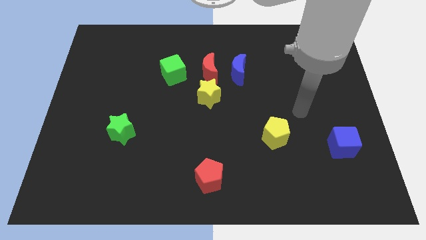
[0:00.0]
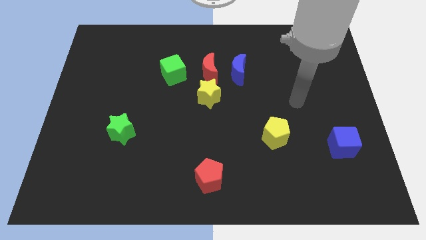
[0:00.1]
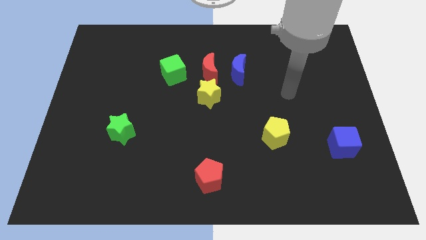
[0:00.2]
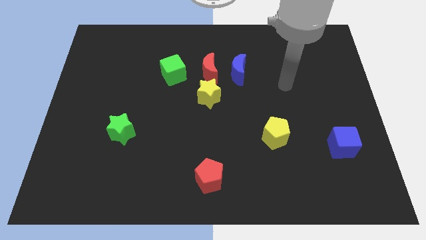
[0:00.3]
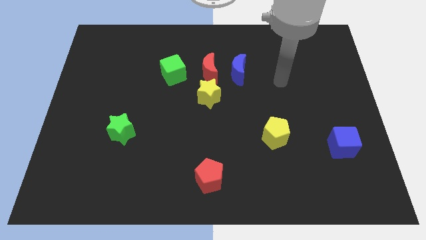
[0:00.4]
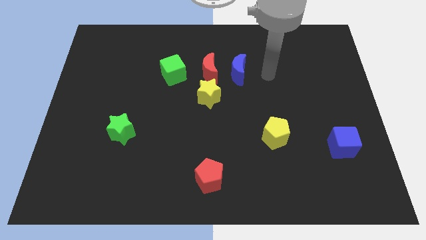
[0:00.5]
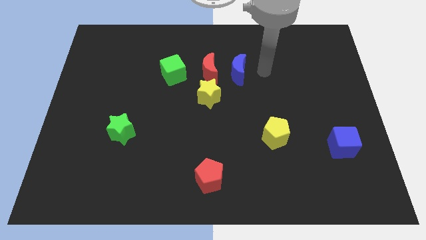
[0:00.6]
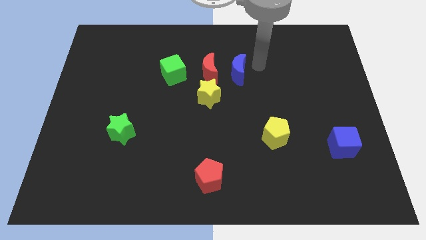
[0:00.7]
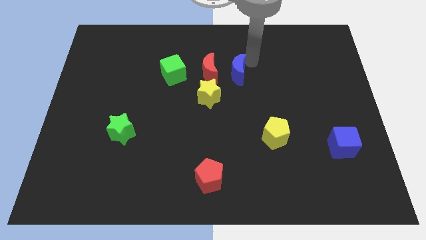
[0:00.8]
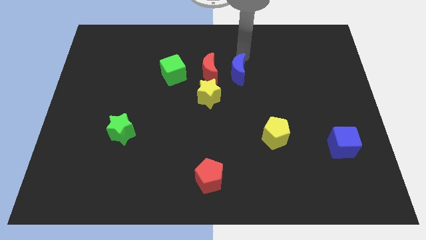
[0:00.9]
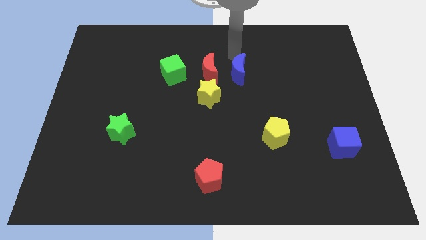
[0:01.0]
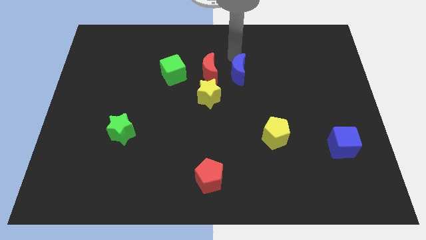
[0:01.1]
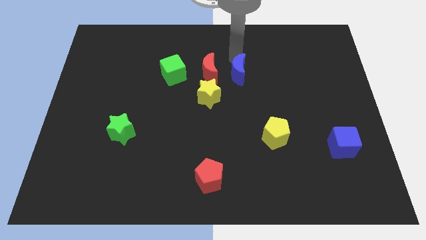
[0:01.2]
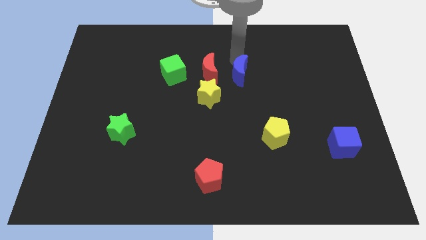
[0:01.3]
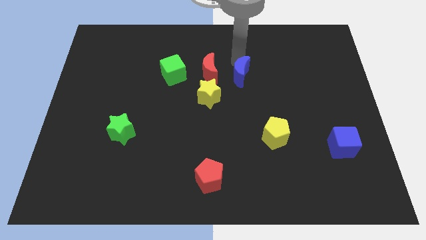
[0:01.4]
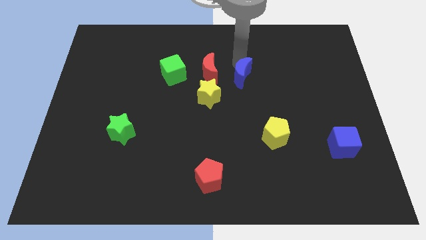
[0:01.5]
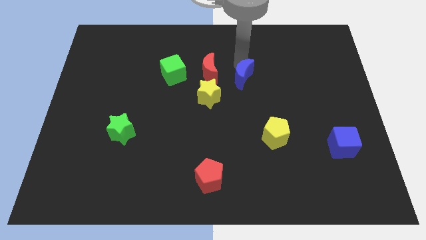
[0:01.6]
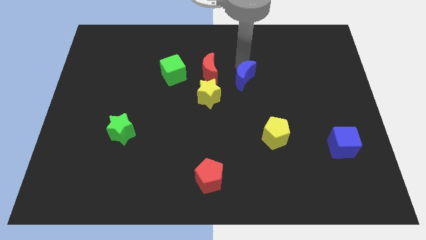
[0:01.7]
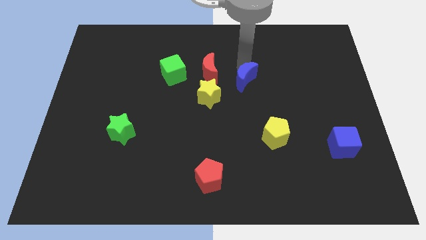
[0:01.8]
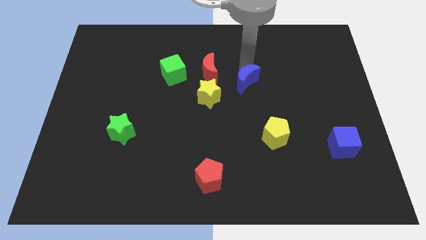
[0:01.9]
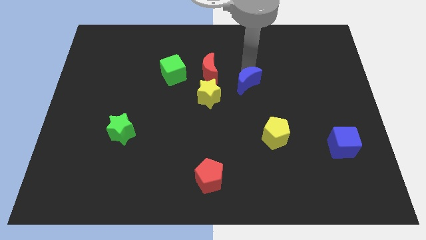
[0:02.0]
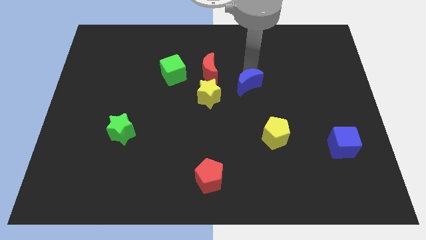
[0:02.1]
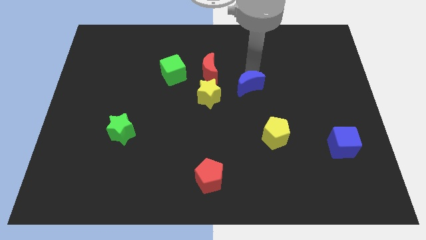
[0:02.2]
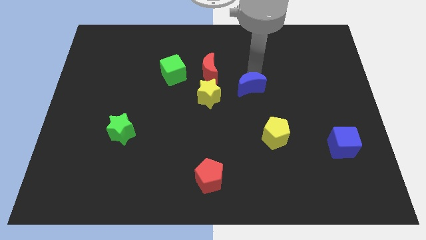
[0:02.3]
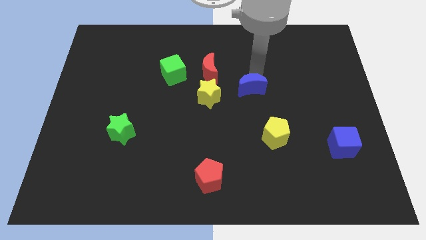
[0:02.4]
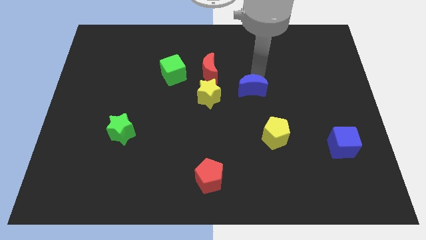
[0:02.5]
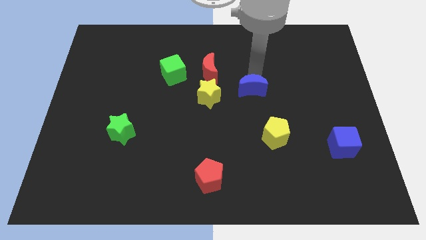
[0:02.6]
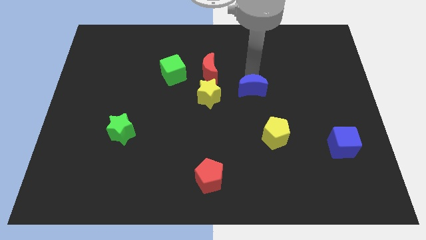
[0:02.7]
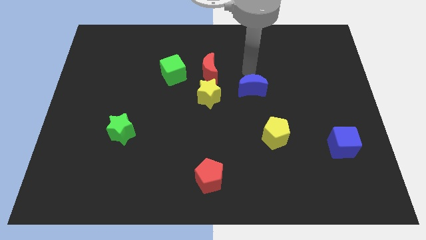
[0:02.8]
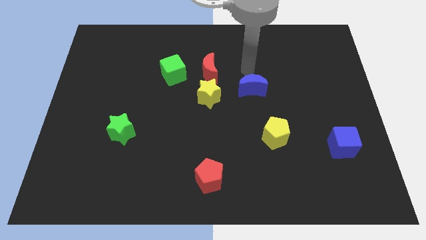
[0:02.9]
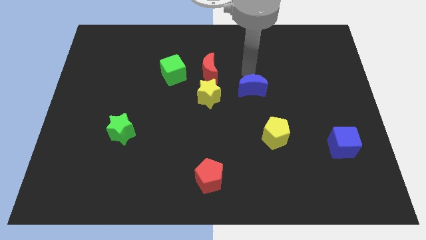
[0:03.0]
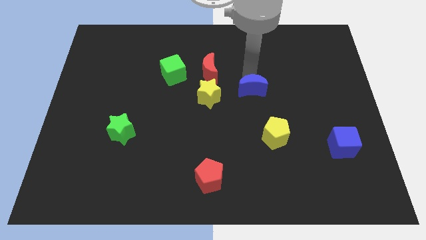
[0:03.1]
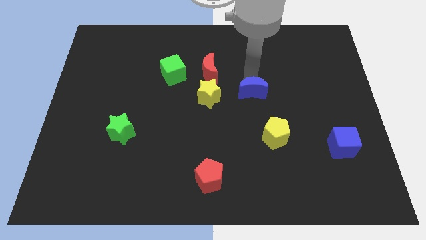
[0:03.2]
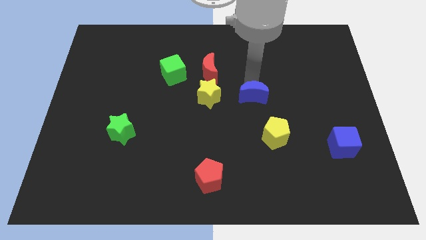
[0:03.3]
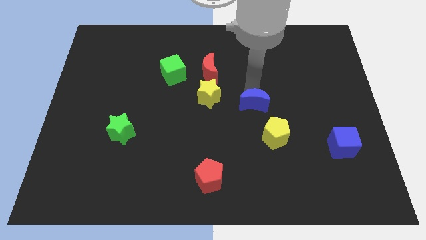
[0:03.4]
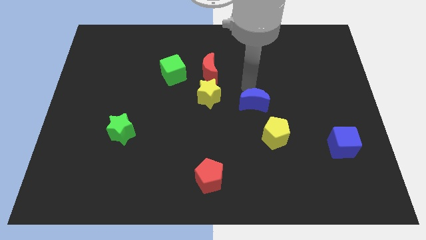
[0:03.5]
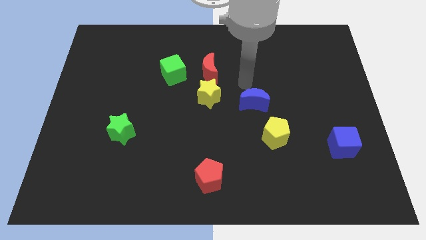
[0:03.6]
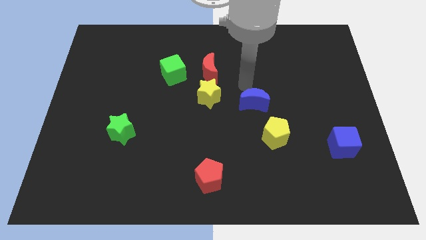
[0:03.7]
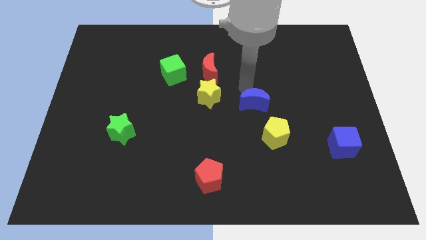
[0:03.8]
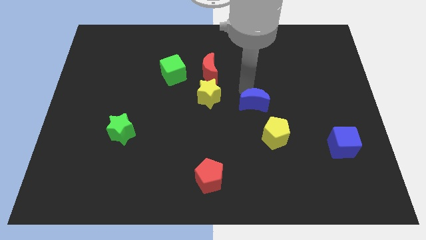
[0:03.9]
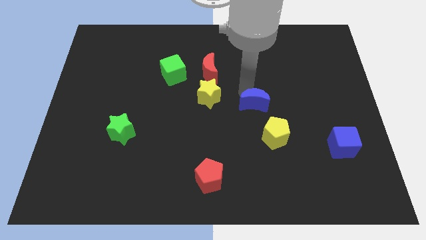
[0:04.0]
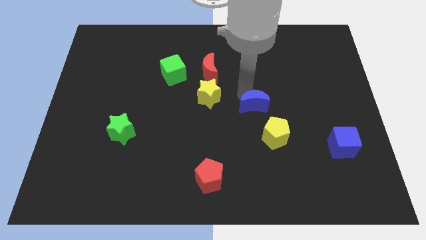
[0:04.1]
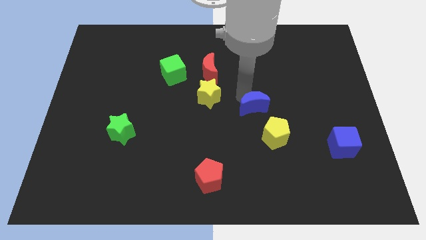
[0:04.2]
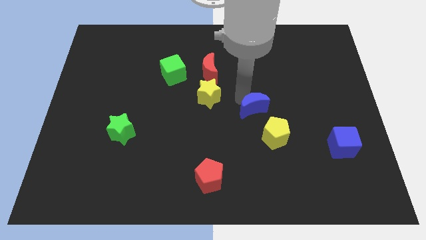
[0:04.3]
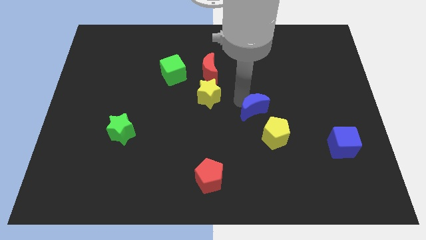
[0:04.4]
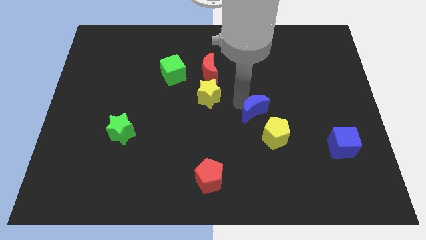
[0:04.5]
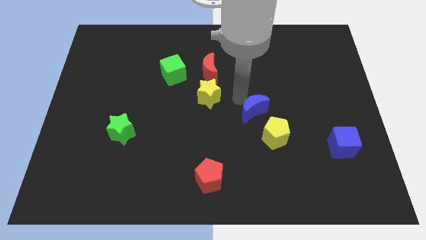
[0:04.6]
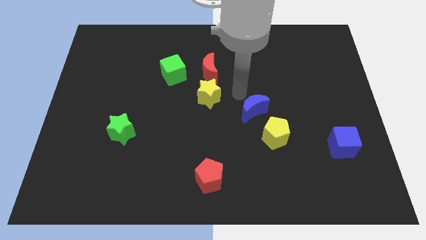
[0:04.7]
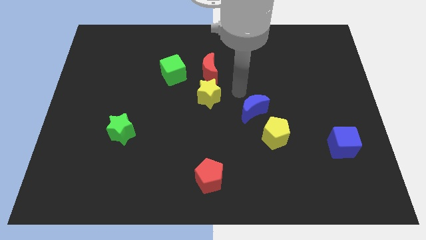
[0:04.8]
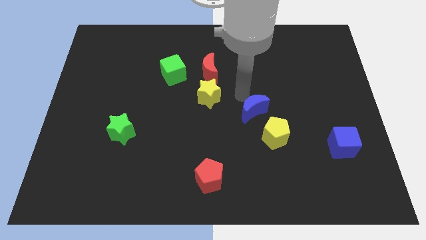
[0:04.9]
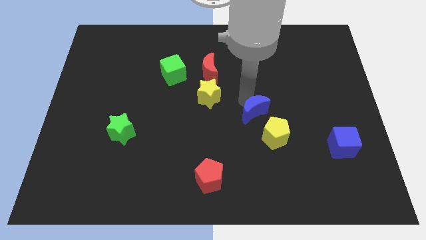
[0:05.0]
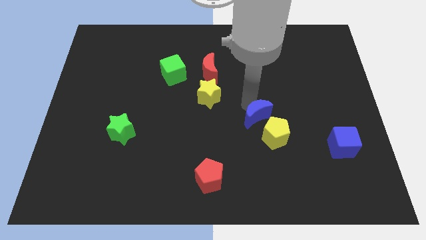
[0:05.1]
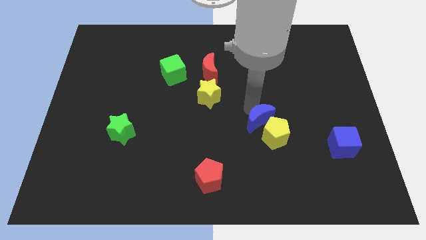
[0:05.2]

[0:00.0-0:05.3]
move the blue moon towards the yellow pentagon

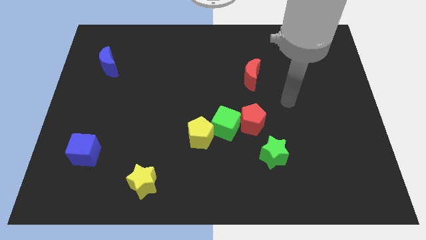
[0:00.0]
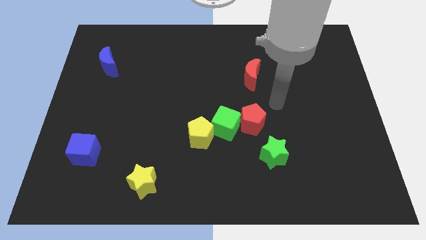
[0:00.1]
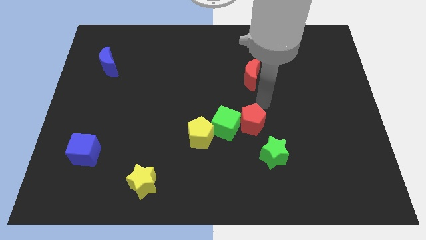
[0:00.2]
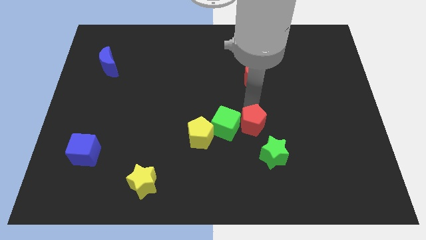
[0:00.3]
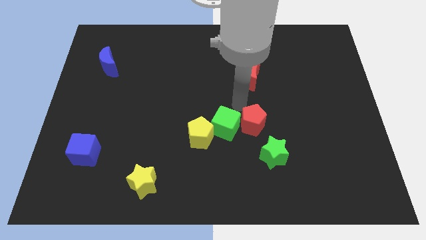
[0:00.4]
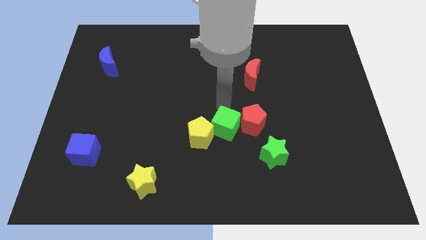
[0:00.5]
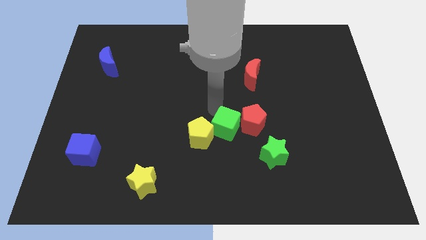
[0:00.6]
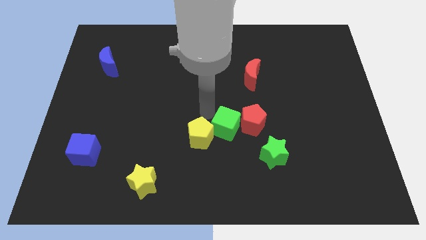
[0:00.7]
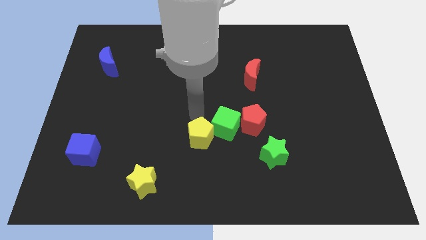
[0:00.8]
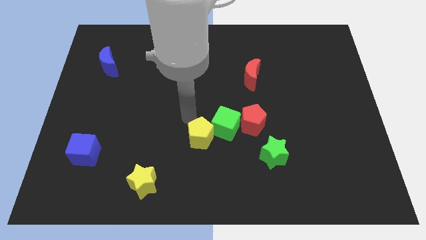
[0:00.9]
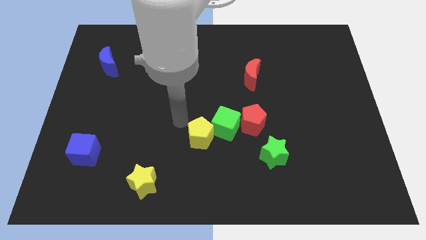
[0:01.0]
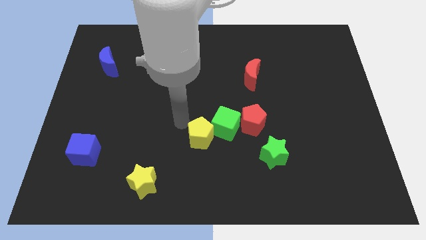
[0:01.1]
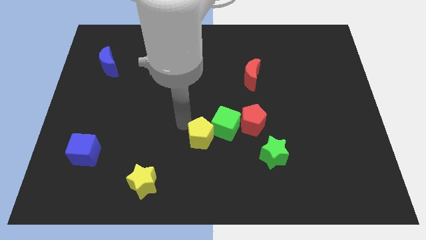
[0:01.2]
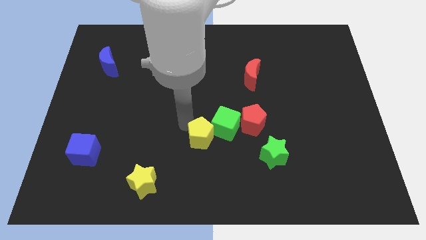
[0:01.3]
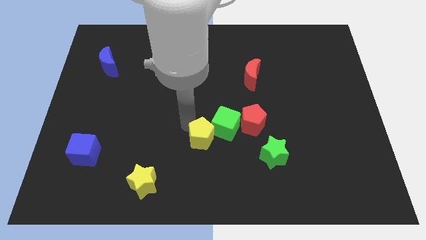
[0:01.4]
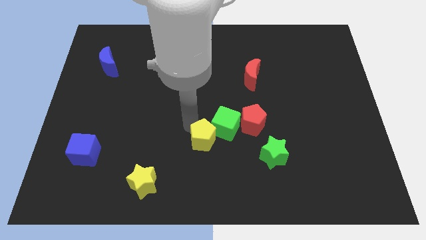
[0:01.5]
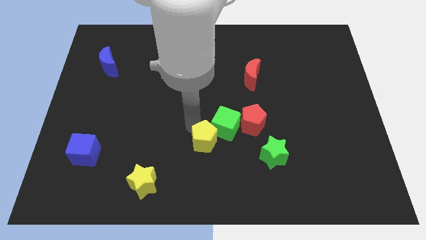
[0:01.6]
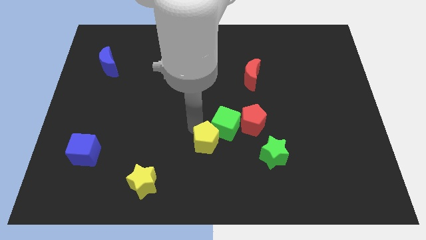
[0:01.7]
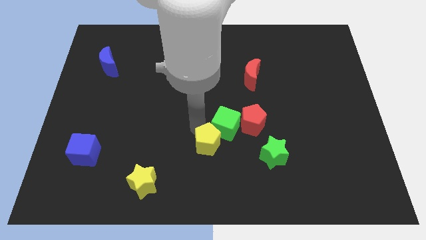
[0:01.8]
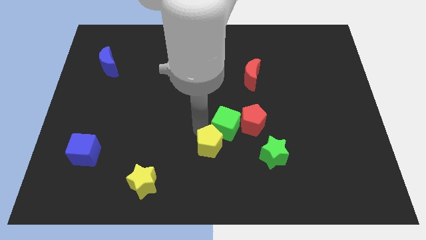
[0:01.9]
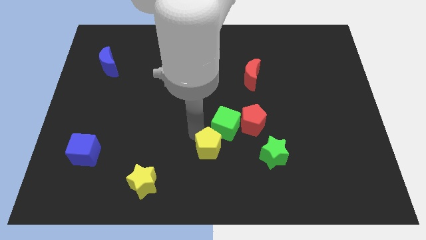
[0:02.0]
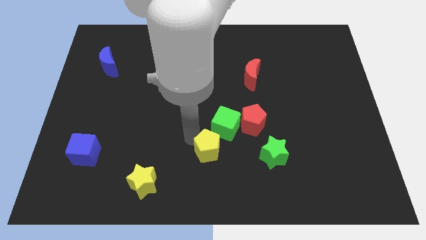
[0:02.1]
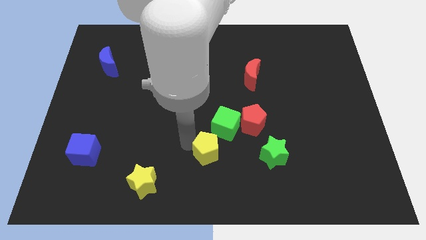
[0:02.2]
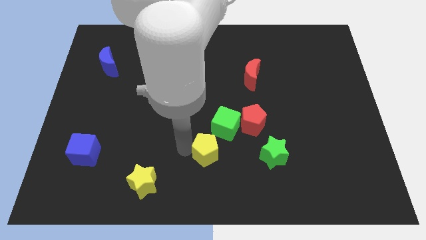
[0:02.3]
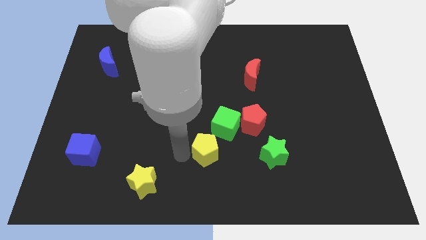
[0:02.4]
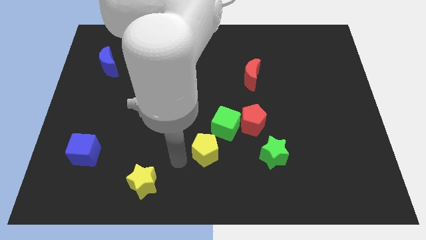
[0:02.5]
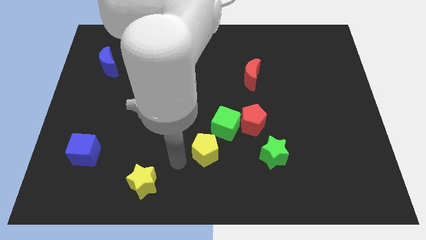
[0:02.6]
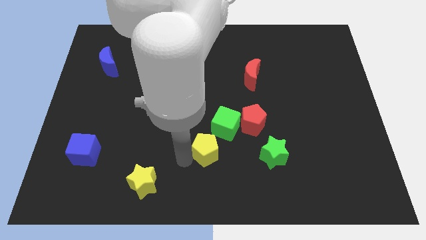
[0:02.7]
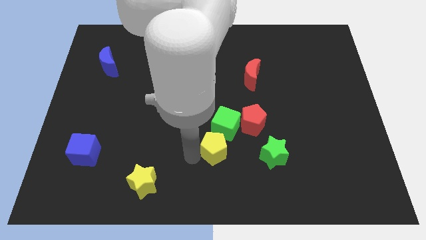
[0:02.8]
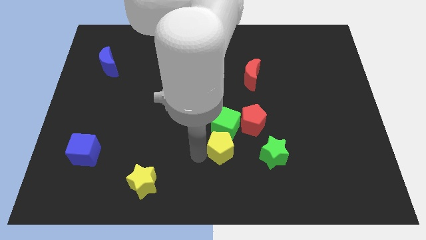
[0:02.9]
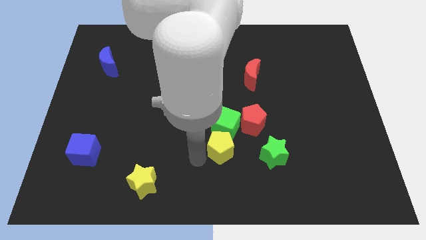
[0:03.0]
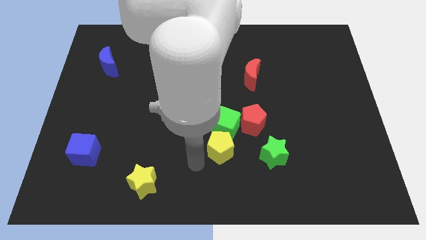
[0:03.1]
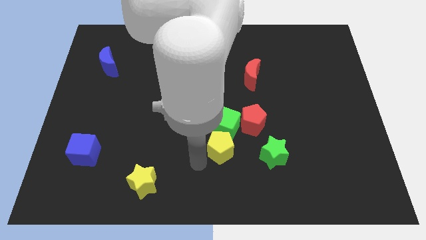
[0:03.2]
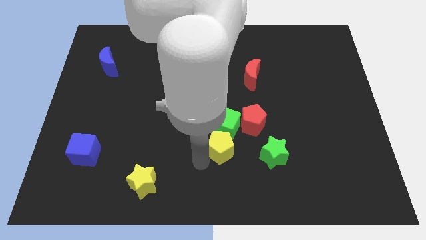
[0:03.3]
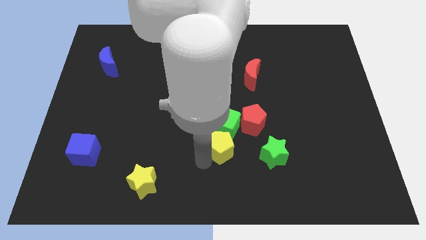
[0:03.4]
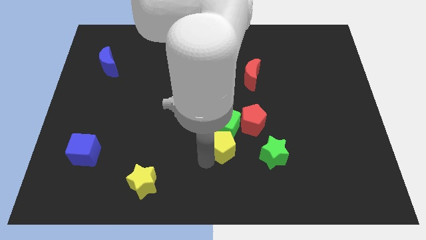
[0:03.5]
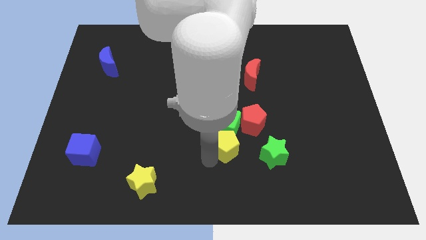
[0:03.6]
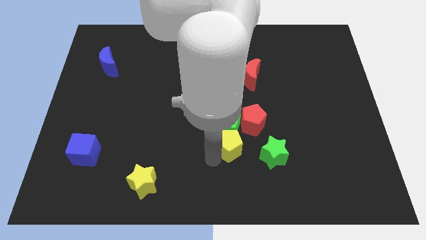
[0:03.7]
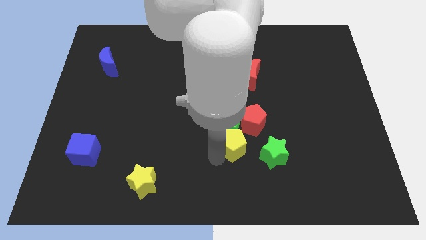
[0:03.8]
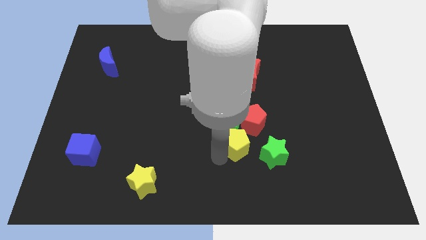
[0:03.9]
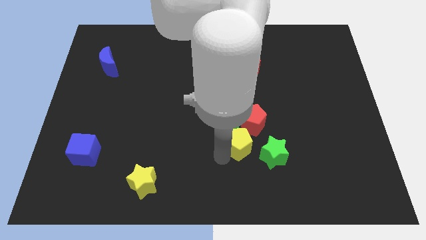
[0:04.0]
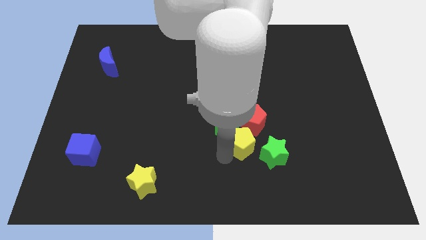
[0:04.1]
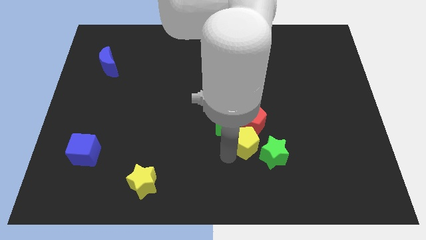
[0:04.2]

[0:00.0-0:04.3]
push the yellow pentagon next to the red pentagon
